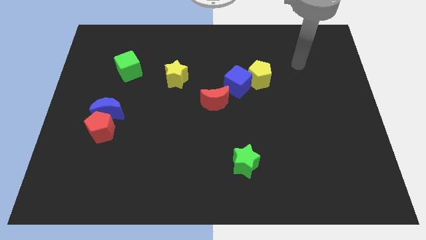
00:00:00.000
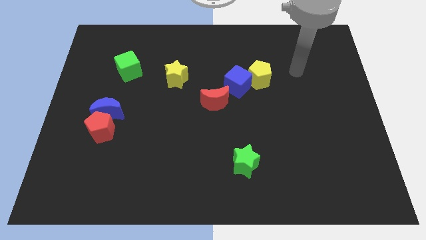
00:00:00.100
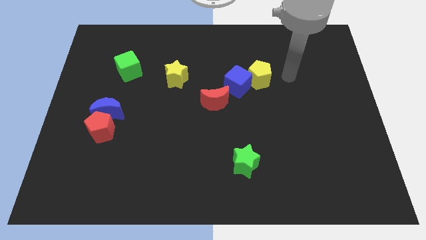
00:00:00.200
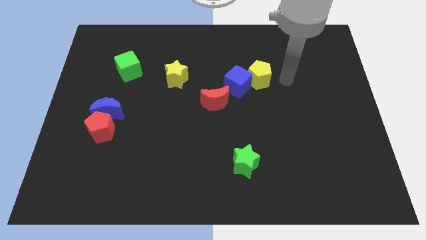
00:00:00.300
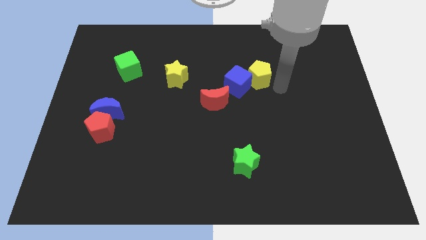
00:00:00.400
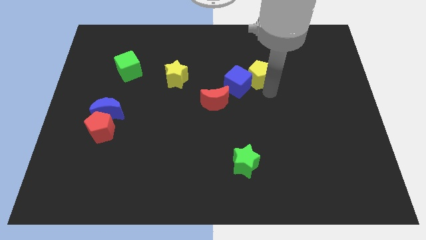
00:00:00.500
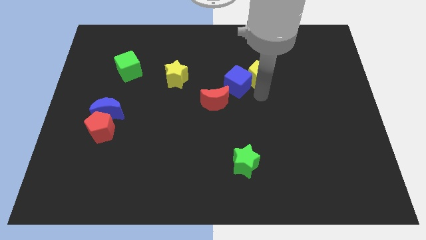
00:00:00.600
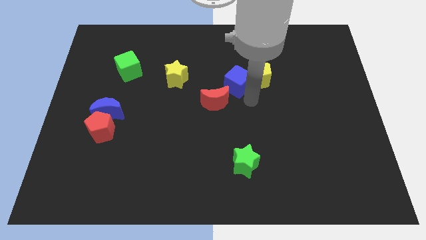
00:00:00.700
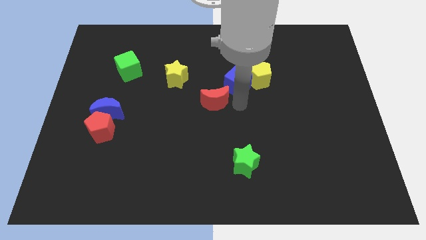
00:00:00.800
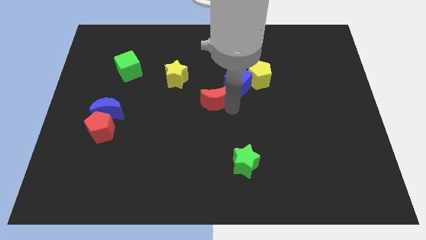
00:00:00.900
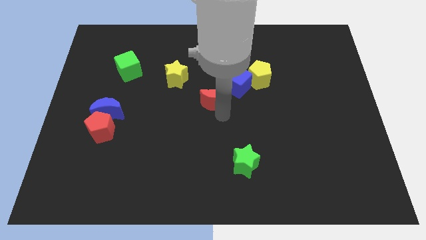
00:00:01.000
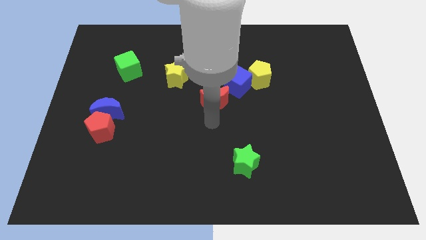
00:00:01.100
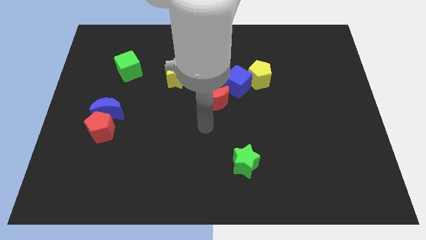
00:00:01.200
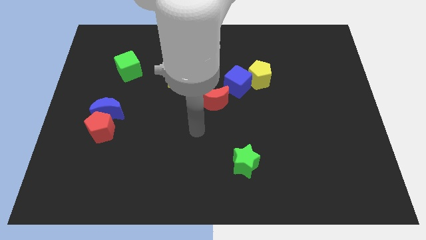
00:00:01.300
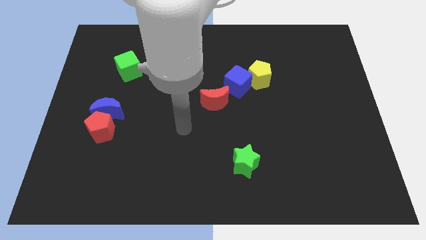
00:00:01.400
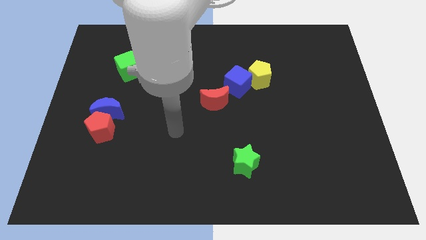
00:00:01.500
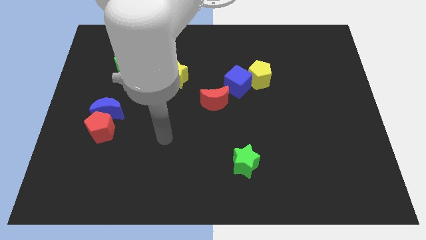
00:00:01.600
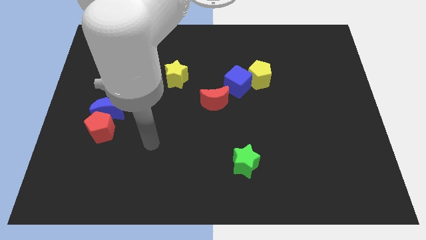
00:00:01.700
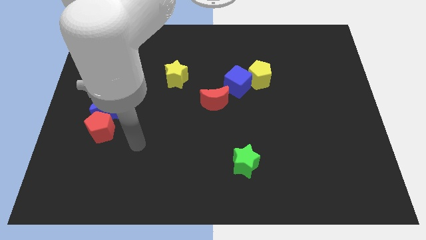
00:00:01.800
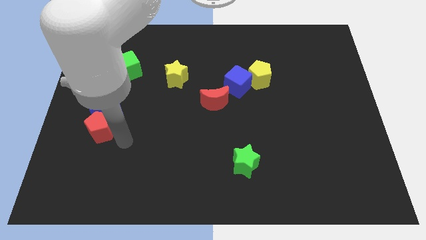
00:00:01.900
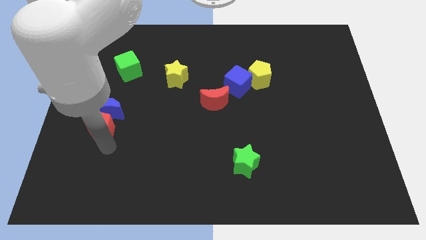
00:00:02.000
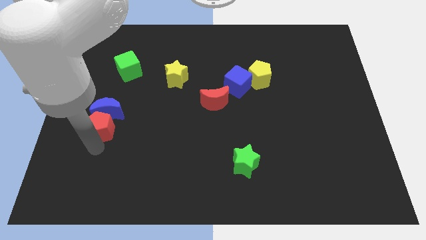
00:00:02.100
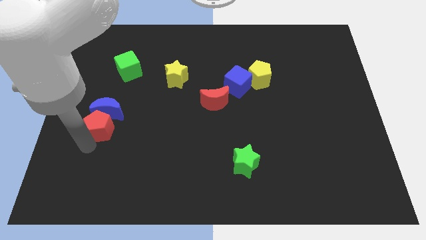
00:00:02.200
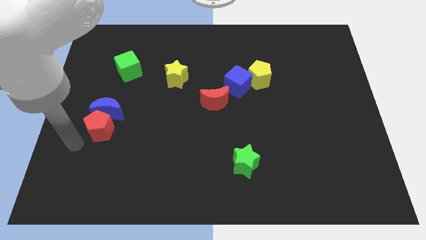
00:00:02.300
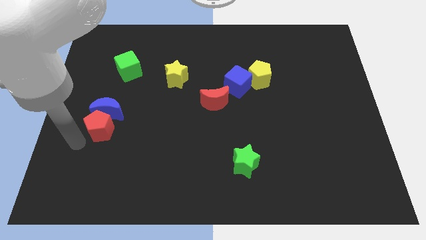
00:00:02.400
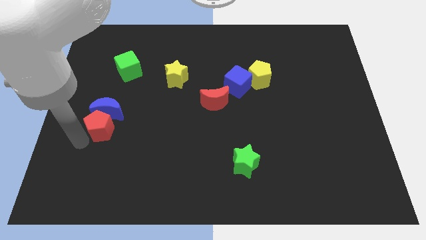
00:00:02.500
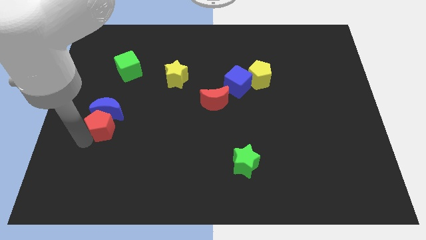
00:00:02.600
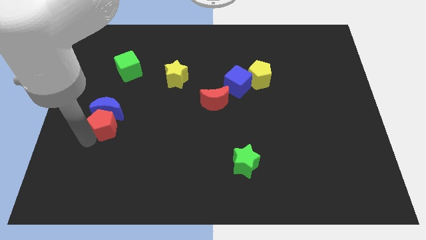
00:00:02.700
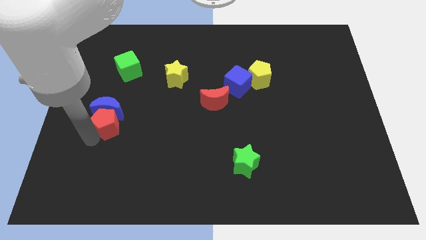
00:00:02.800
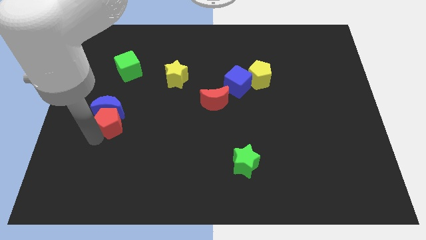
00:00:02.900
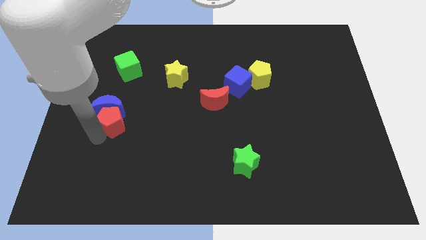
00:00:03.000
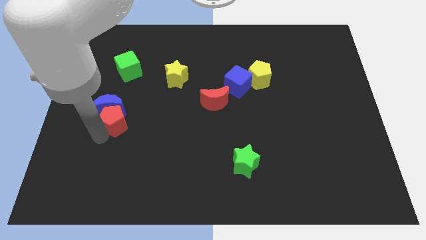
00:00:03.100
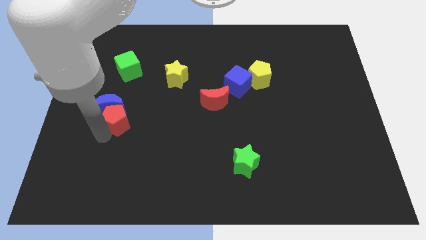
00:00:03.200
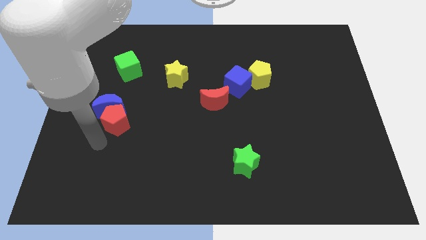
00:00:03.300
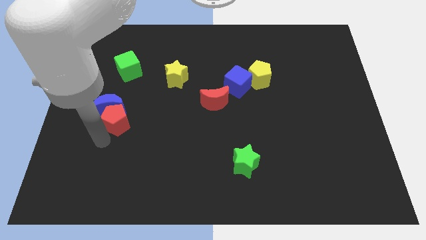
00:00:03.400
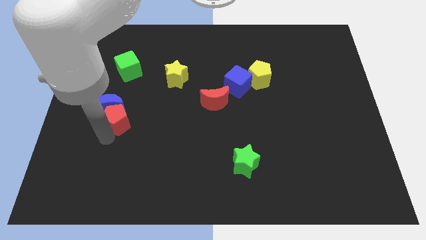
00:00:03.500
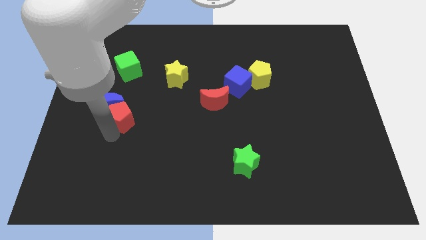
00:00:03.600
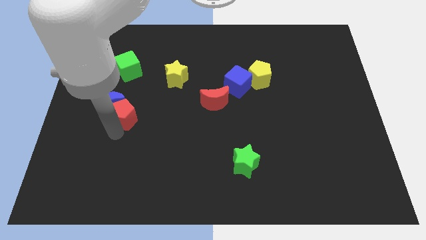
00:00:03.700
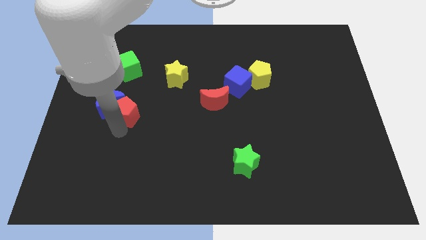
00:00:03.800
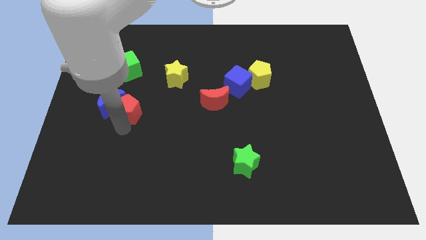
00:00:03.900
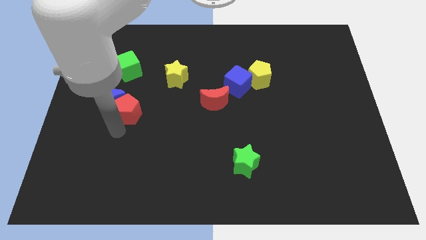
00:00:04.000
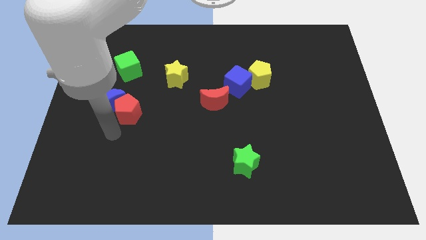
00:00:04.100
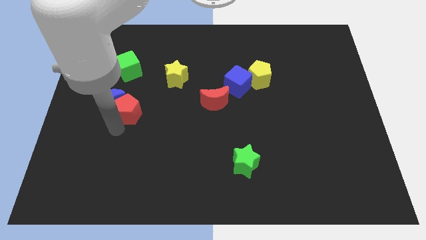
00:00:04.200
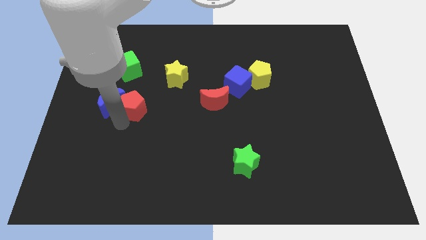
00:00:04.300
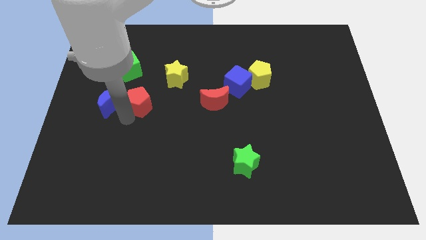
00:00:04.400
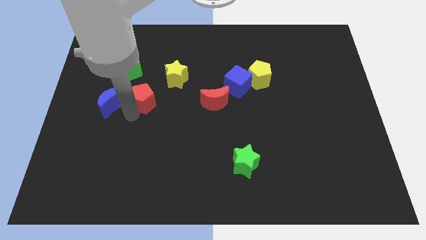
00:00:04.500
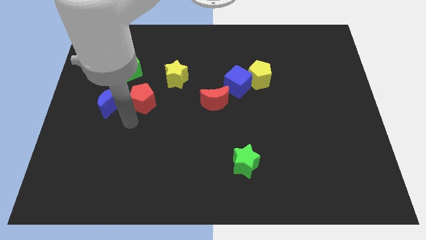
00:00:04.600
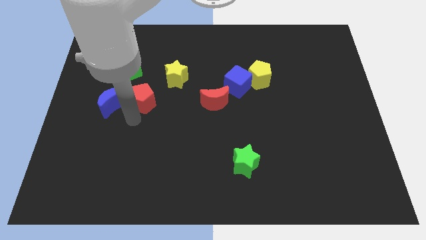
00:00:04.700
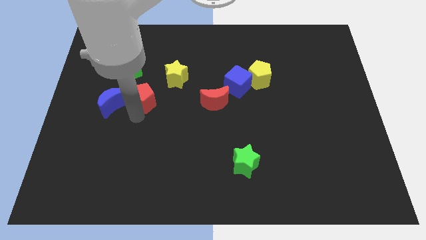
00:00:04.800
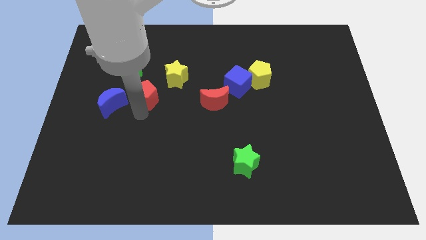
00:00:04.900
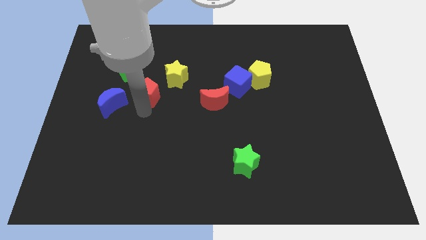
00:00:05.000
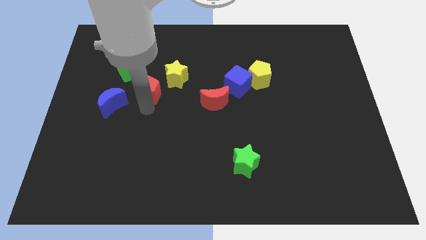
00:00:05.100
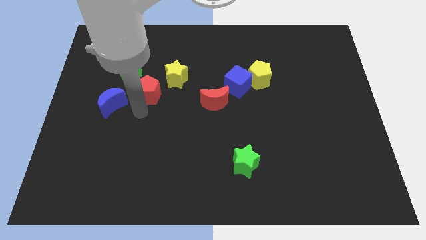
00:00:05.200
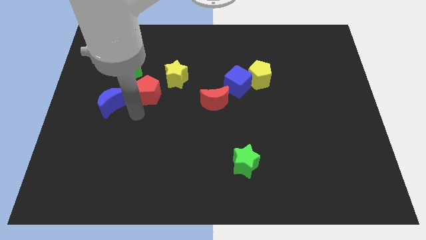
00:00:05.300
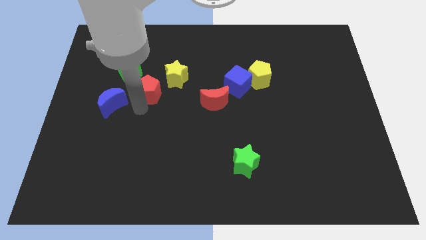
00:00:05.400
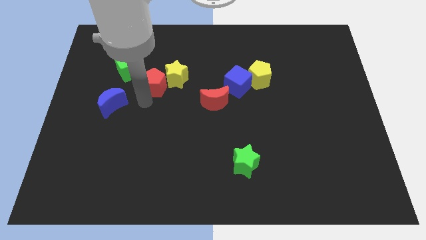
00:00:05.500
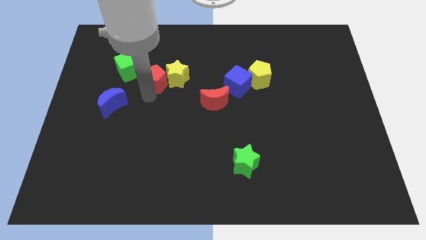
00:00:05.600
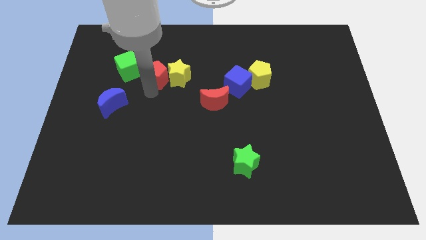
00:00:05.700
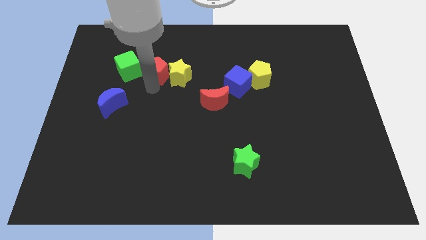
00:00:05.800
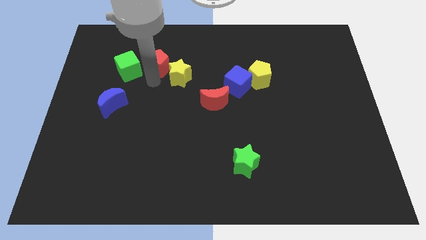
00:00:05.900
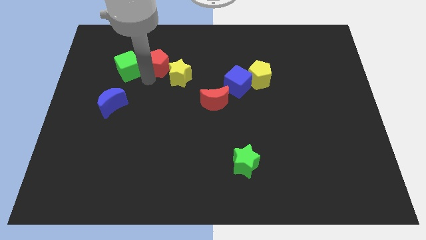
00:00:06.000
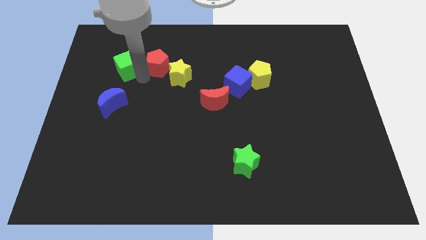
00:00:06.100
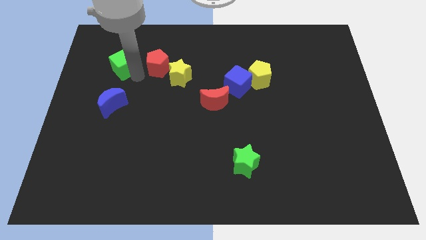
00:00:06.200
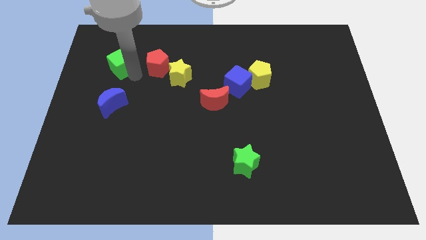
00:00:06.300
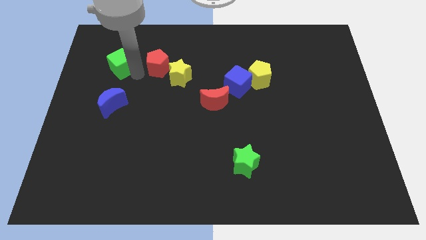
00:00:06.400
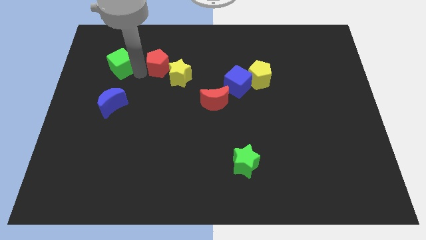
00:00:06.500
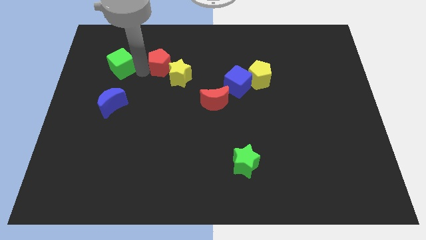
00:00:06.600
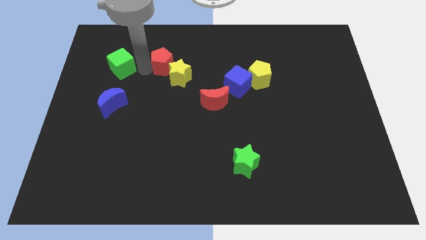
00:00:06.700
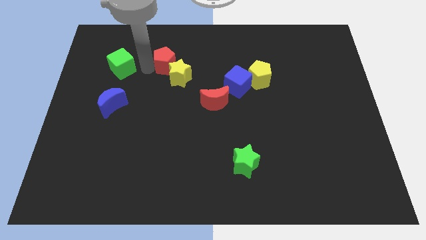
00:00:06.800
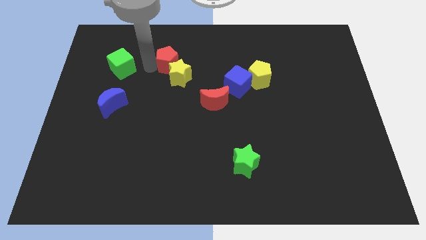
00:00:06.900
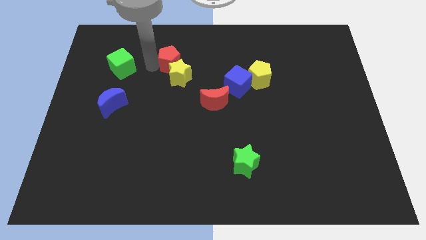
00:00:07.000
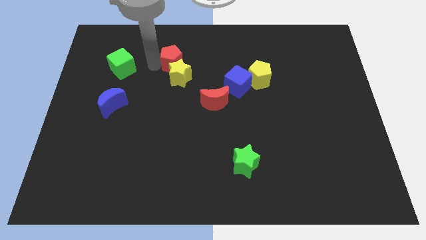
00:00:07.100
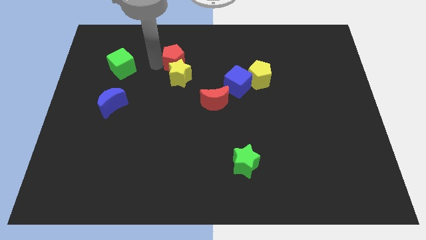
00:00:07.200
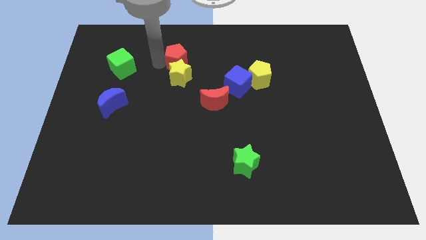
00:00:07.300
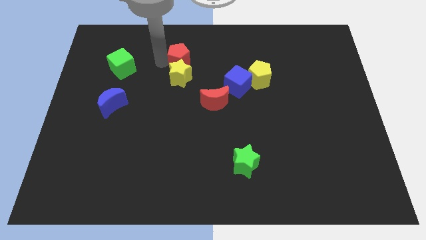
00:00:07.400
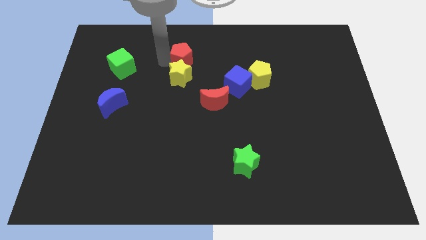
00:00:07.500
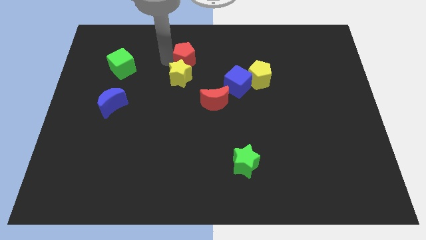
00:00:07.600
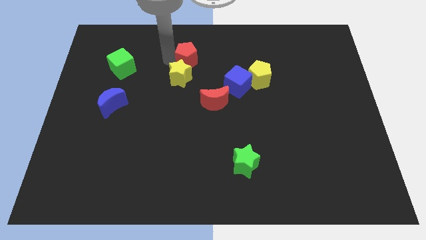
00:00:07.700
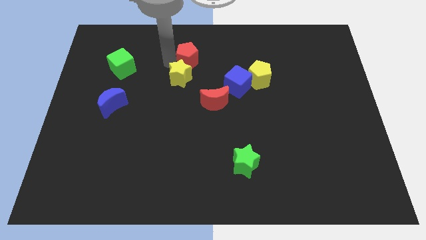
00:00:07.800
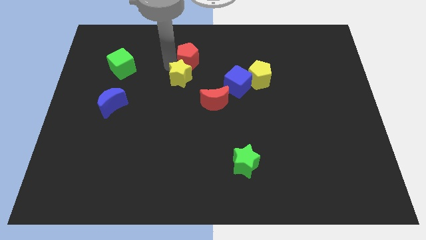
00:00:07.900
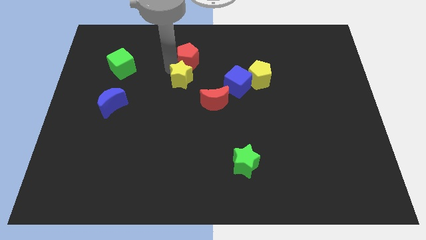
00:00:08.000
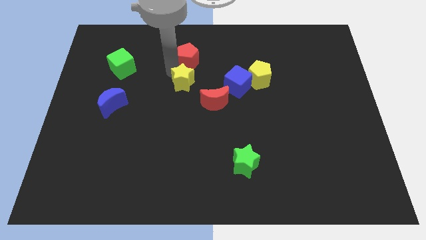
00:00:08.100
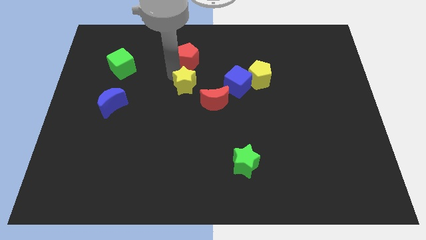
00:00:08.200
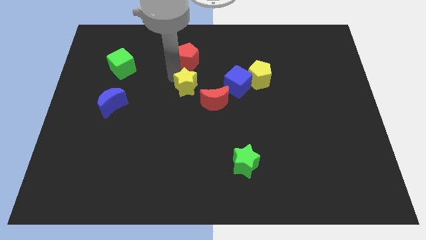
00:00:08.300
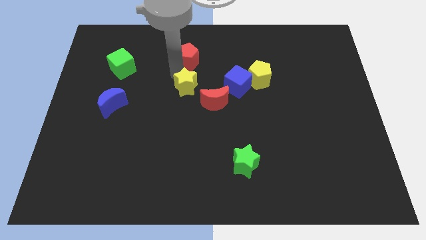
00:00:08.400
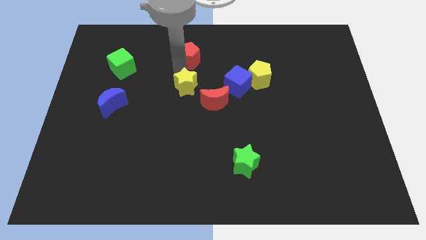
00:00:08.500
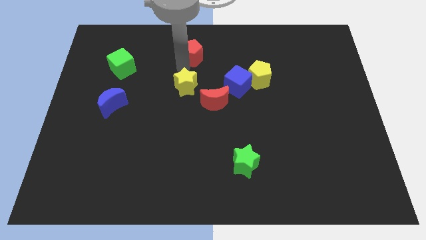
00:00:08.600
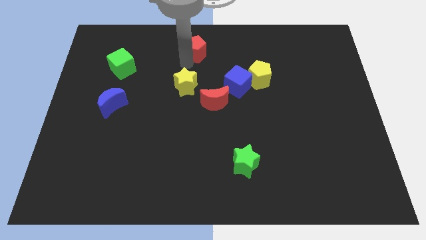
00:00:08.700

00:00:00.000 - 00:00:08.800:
push the red pentagon to the top
